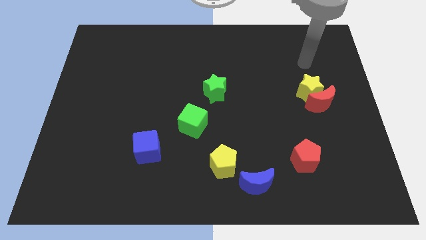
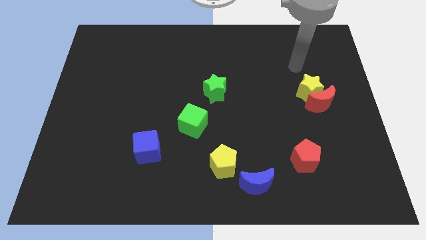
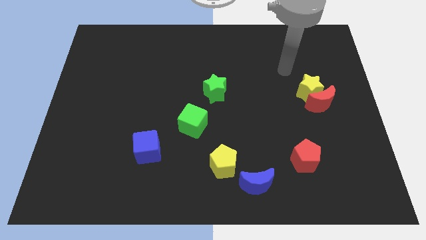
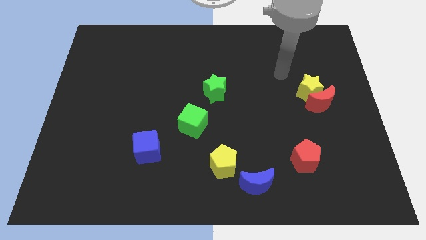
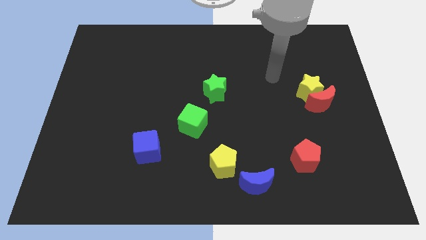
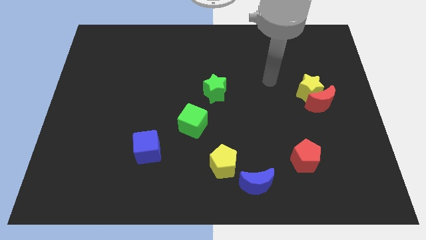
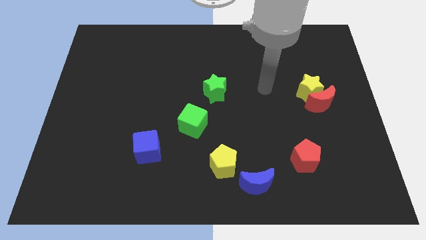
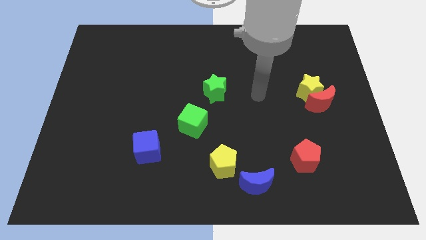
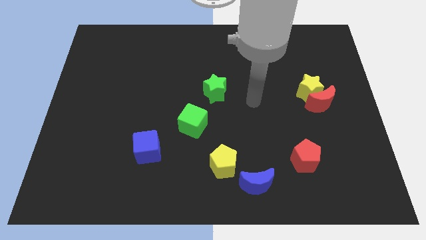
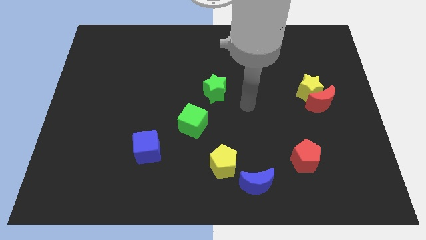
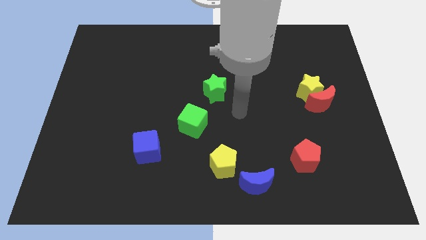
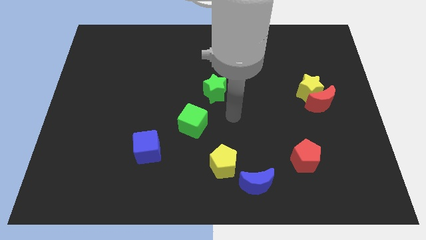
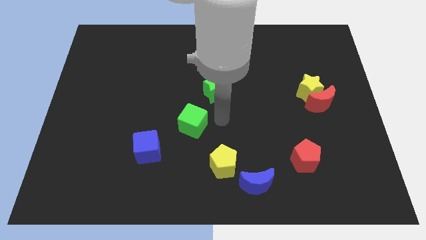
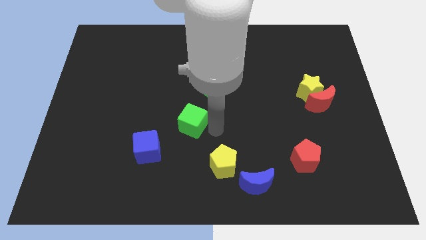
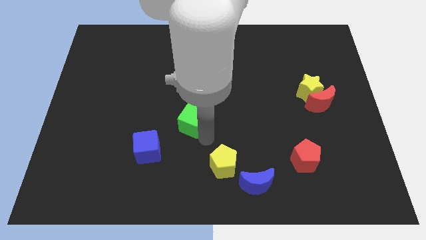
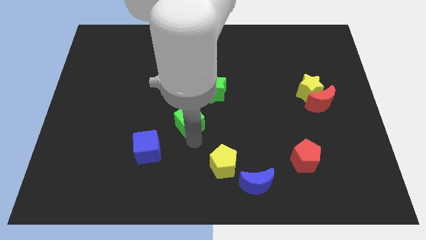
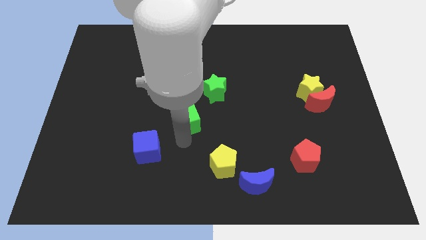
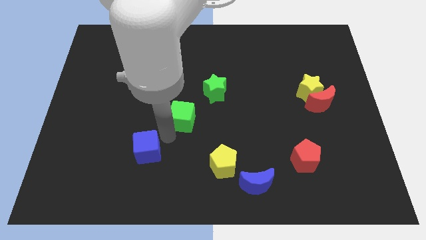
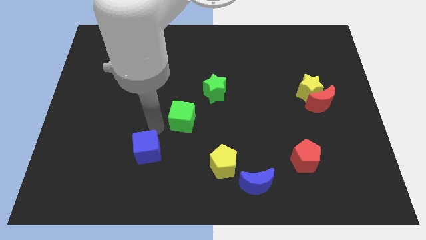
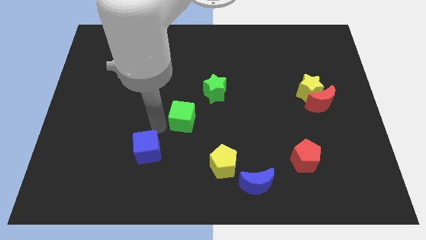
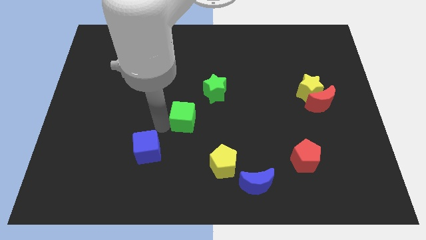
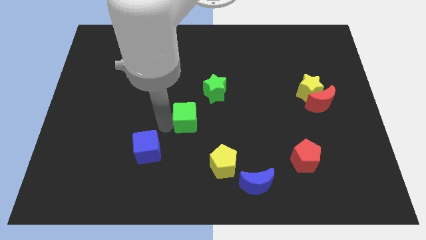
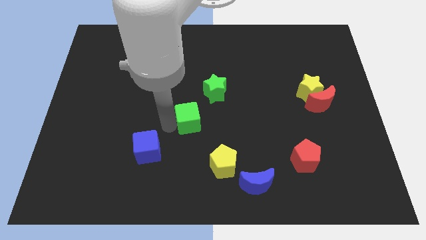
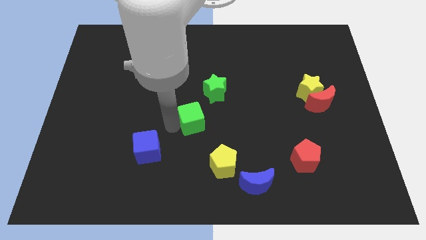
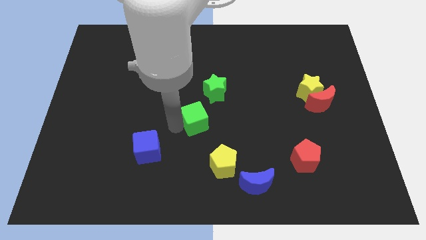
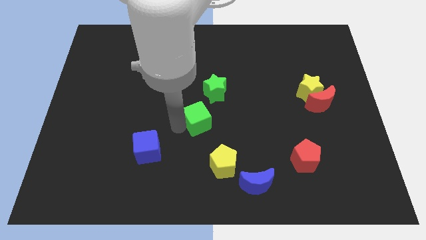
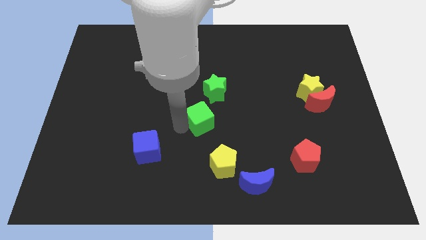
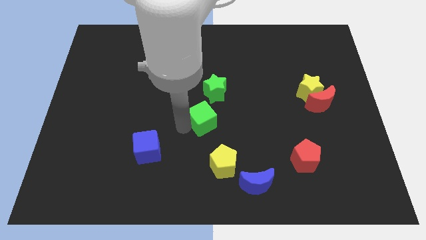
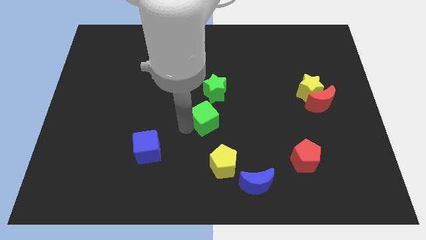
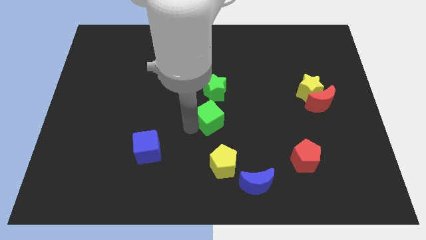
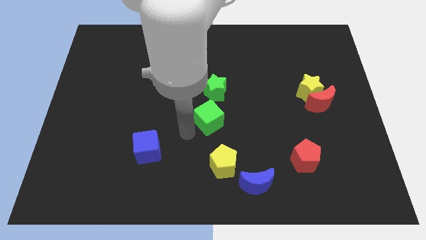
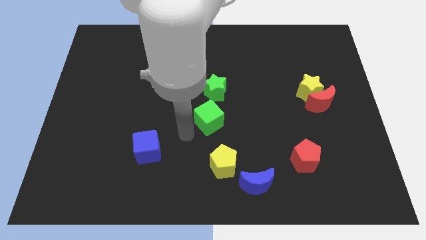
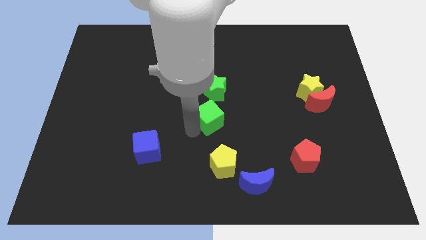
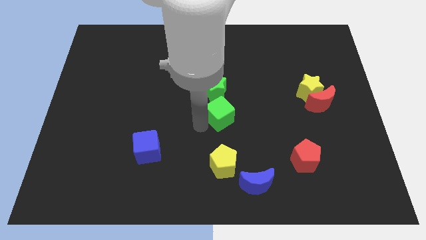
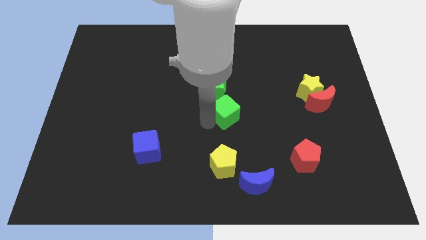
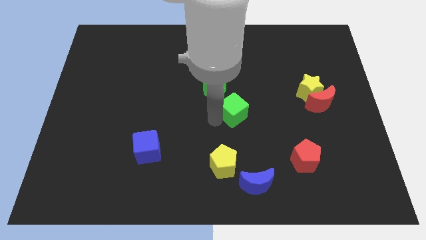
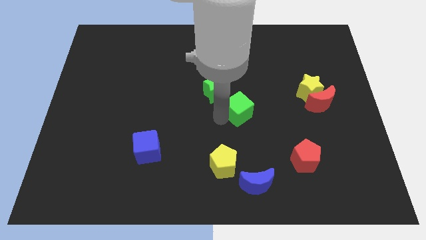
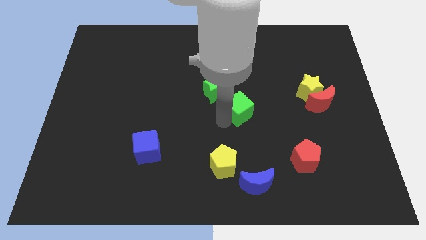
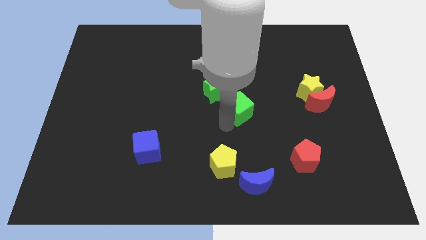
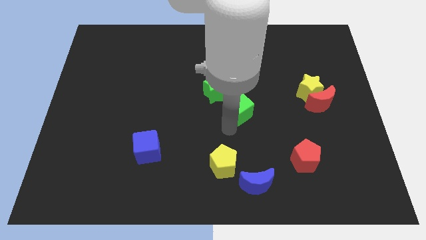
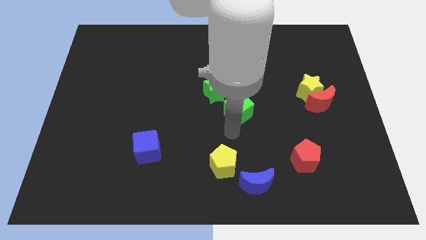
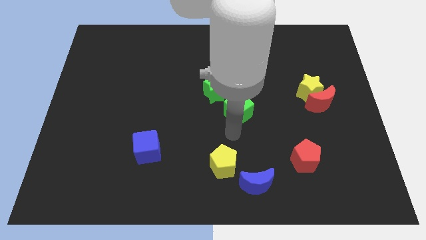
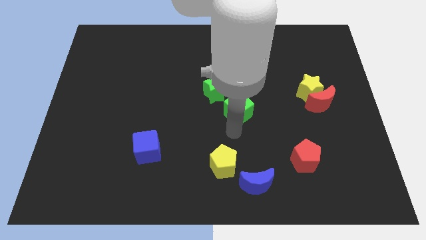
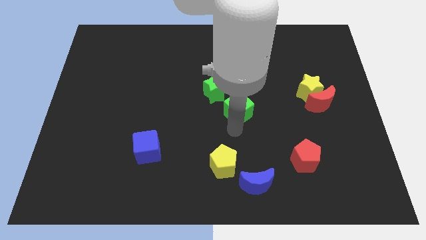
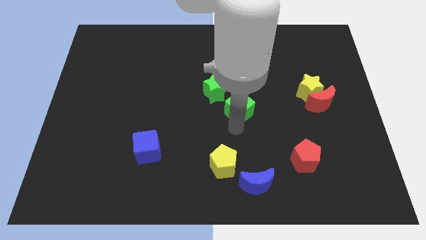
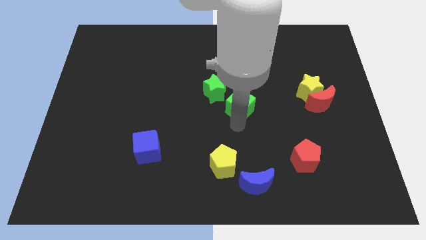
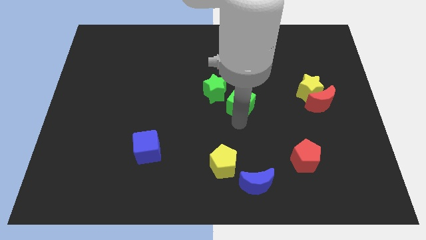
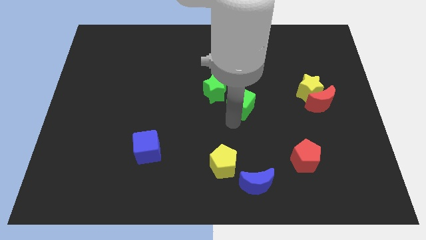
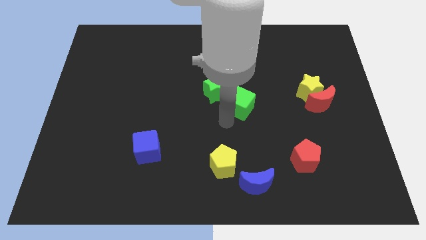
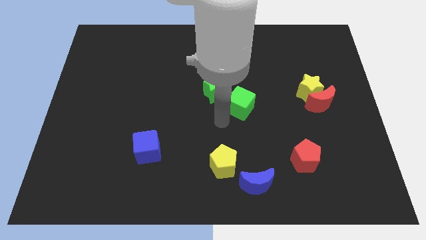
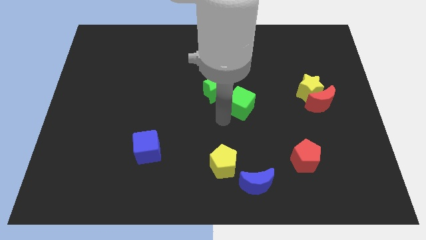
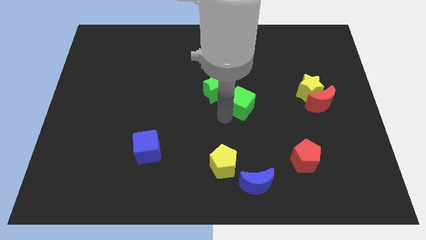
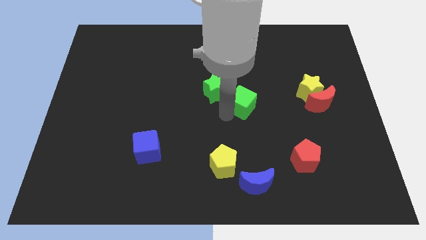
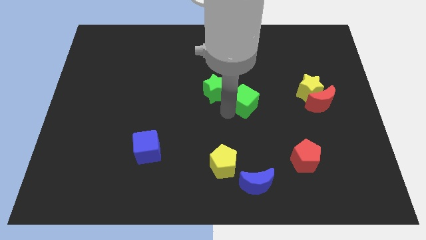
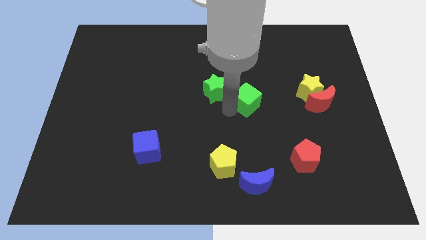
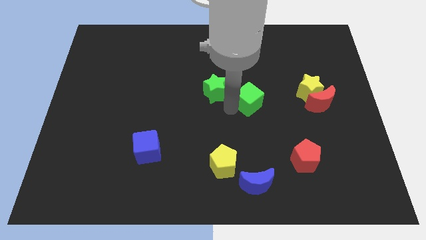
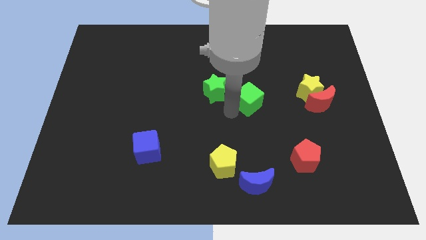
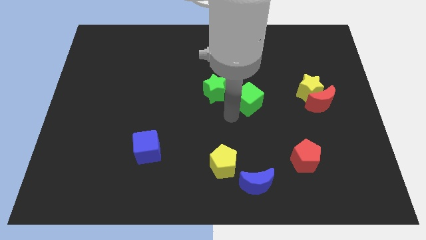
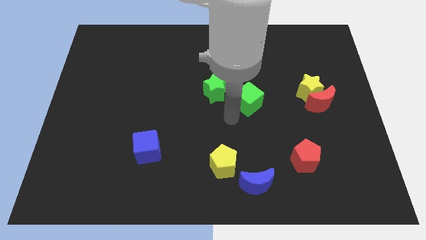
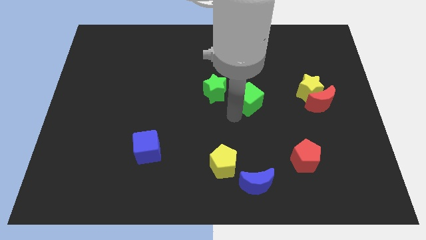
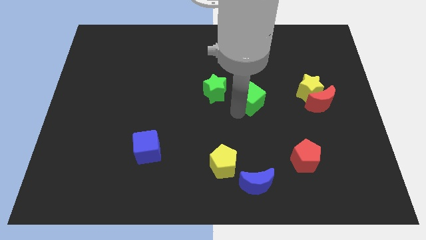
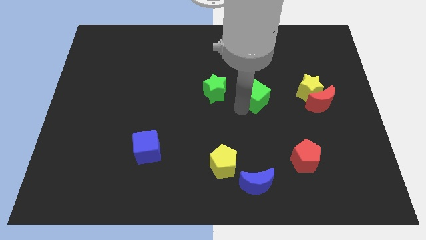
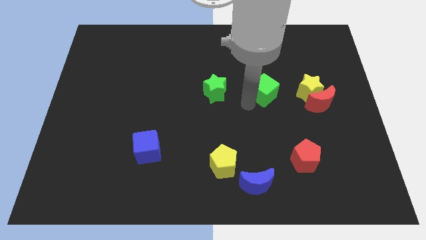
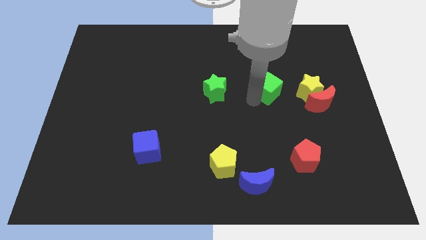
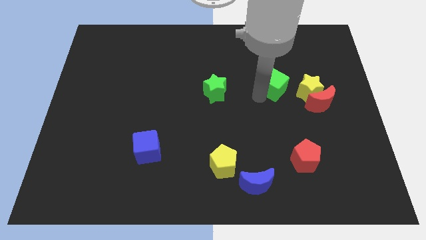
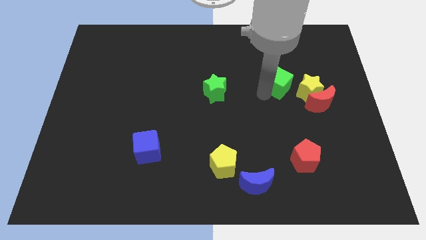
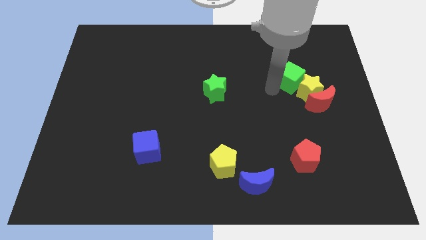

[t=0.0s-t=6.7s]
move the green cube to the top of the yellow star

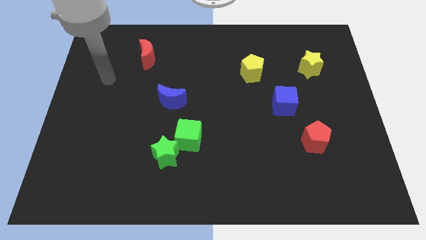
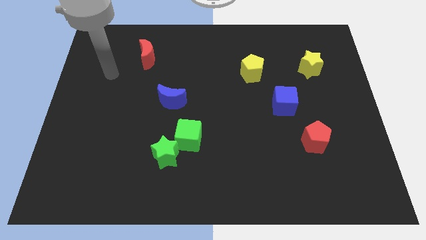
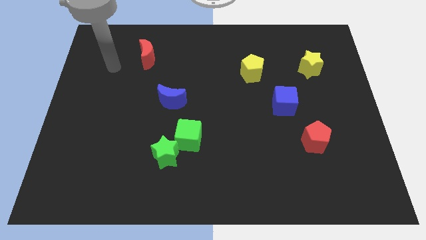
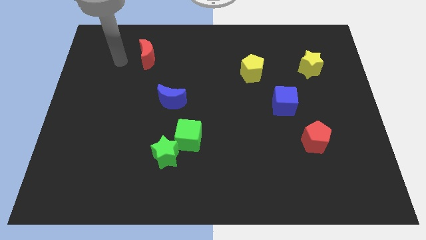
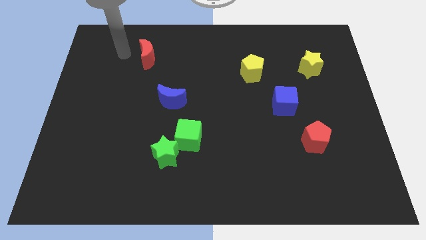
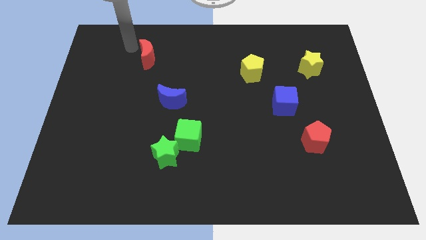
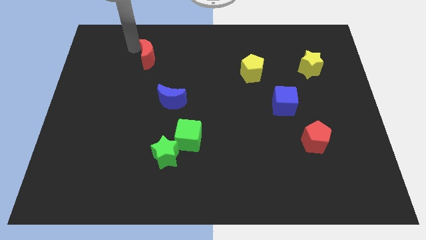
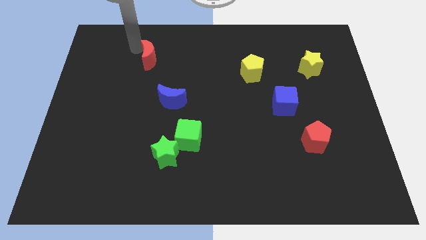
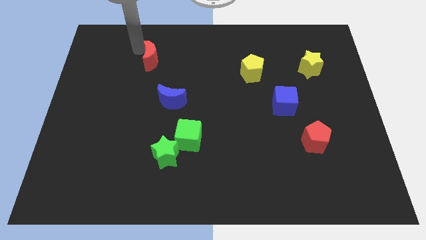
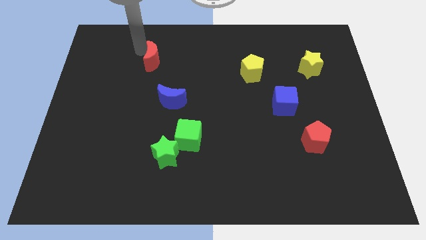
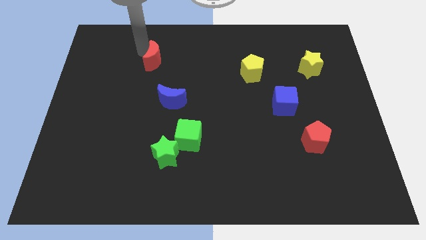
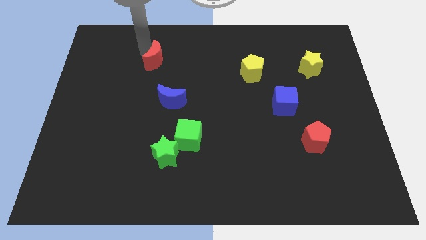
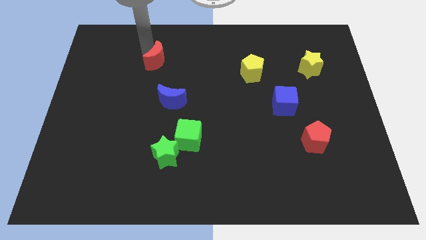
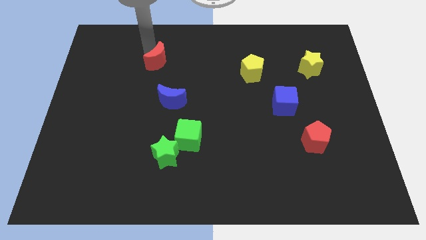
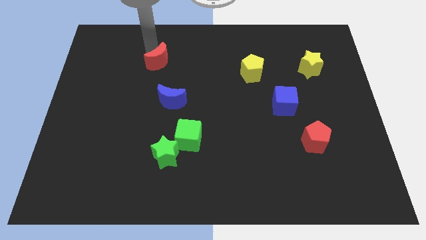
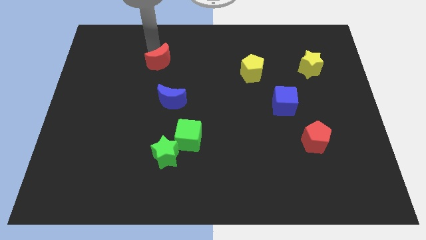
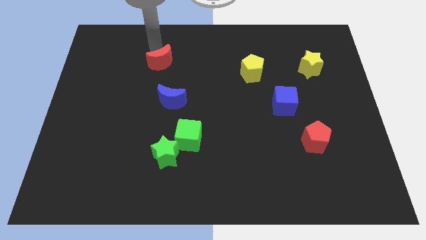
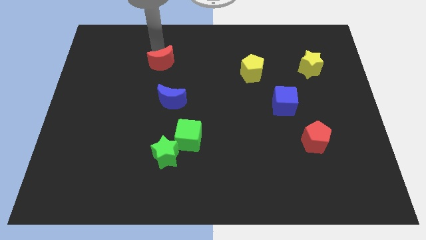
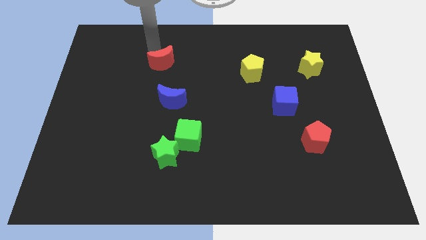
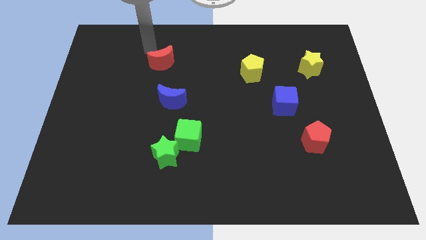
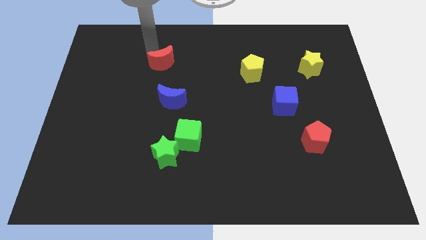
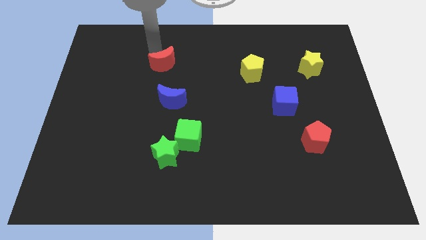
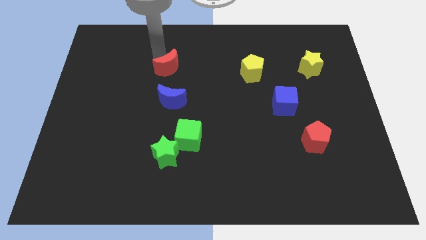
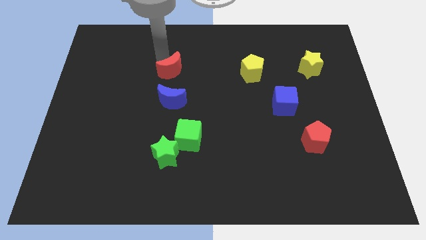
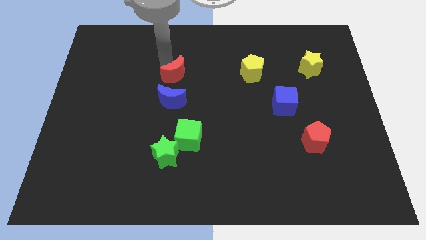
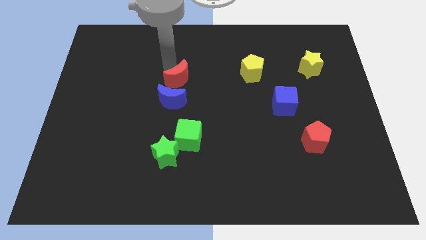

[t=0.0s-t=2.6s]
push the red moon to the top right side of the blue moon
